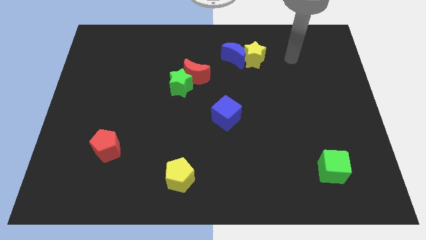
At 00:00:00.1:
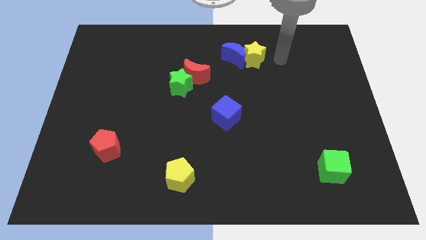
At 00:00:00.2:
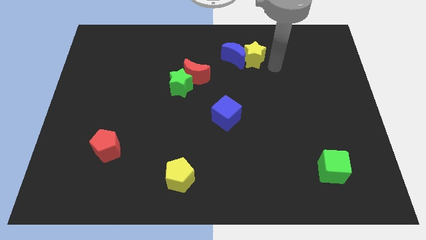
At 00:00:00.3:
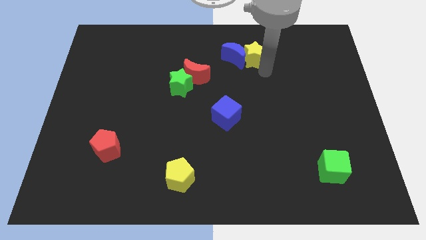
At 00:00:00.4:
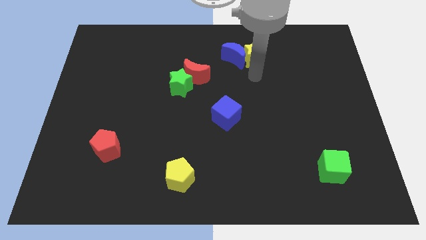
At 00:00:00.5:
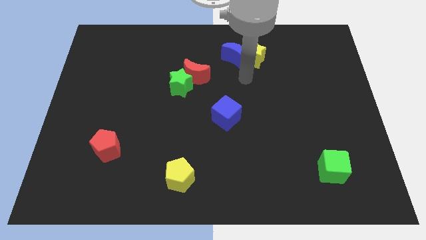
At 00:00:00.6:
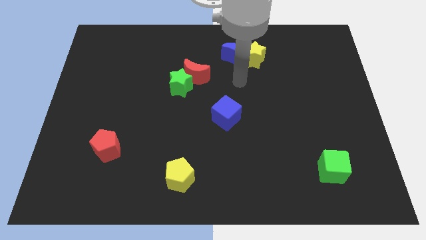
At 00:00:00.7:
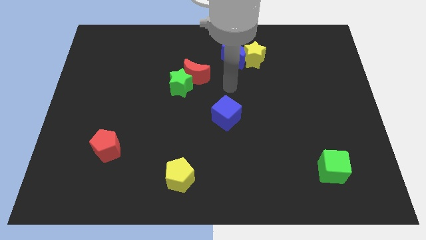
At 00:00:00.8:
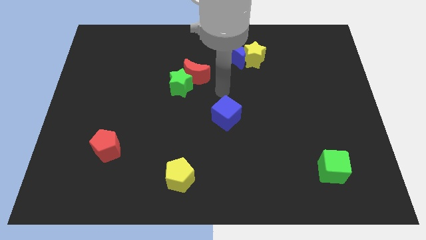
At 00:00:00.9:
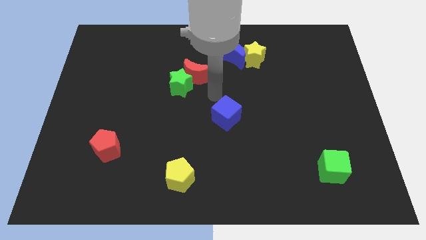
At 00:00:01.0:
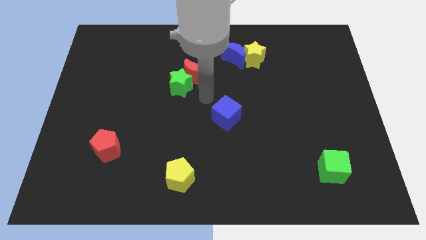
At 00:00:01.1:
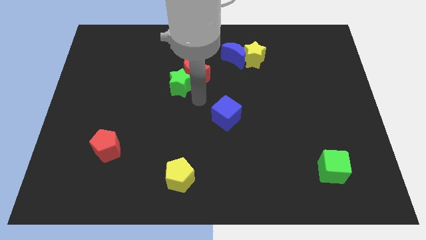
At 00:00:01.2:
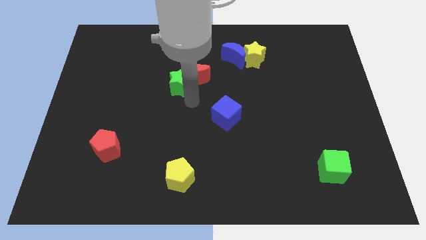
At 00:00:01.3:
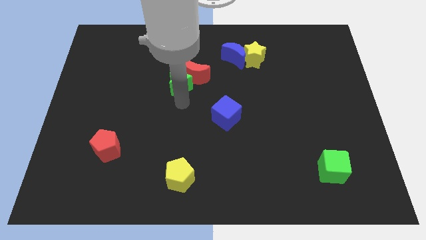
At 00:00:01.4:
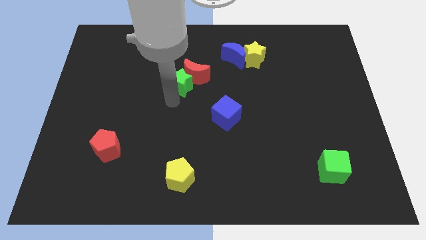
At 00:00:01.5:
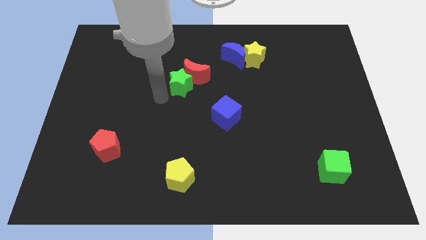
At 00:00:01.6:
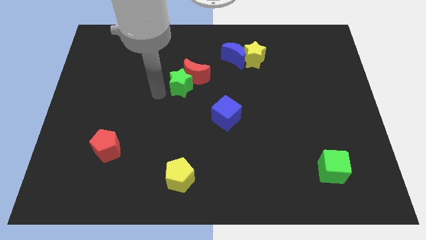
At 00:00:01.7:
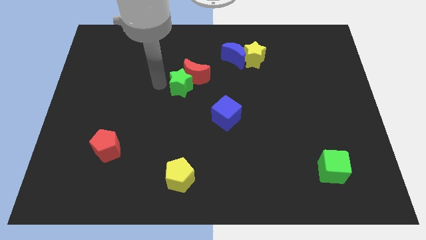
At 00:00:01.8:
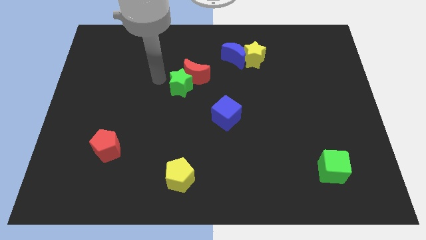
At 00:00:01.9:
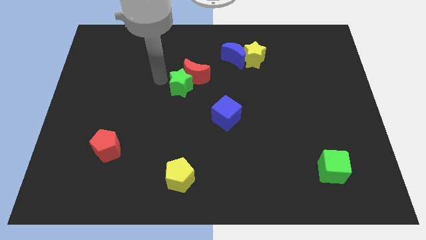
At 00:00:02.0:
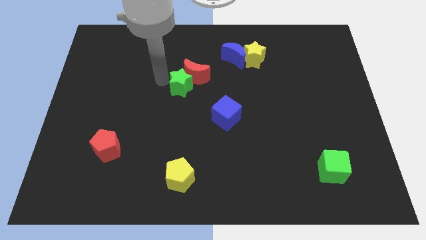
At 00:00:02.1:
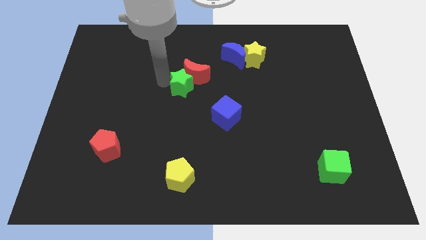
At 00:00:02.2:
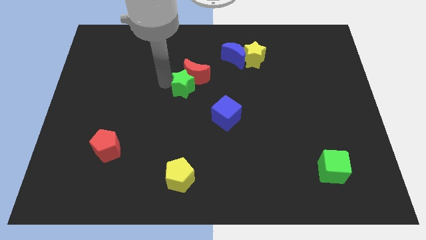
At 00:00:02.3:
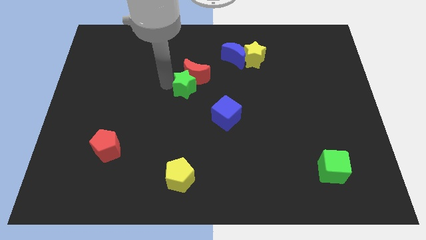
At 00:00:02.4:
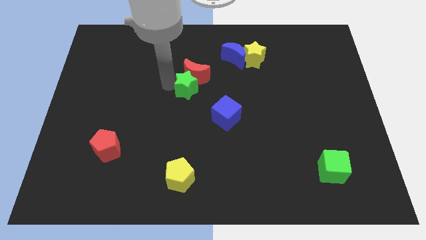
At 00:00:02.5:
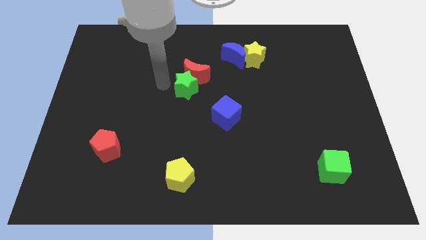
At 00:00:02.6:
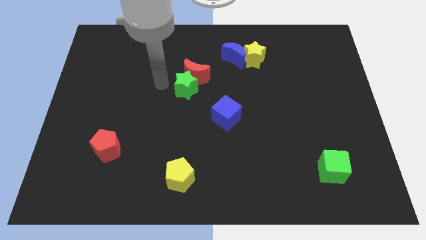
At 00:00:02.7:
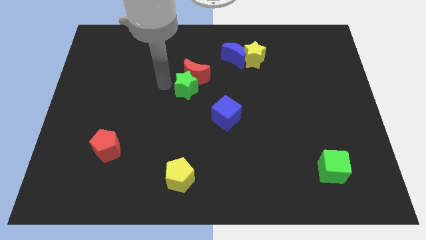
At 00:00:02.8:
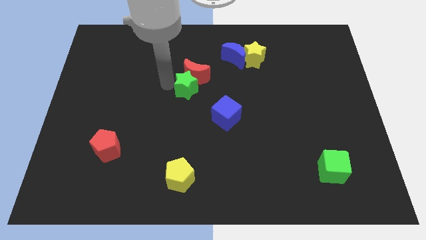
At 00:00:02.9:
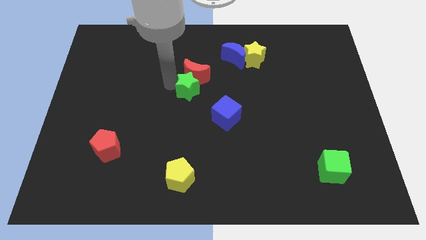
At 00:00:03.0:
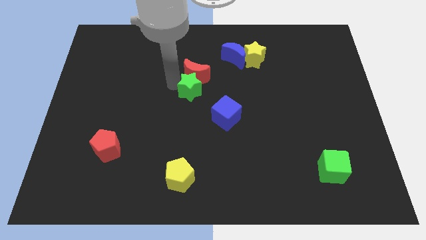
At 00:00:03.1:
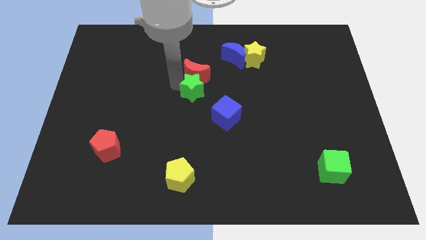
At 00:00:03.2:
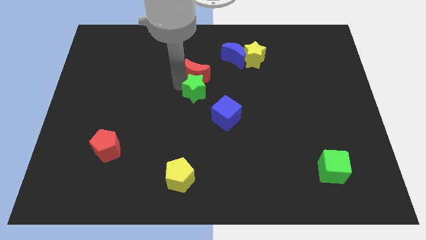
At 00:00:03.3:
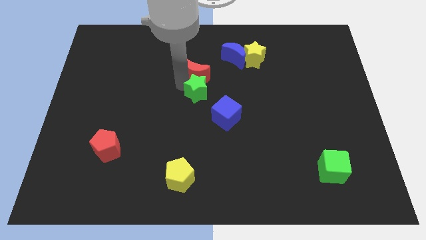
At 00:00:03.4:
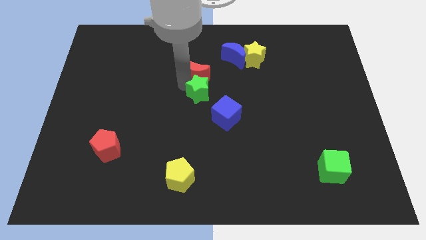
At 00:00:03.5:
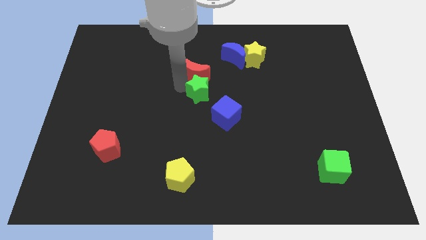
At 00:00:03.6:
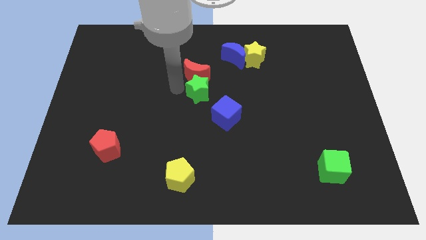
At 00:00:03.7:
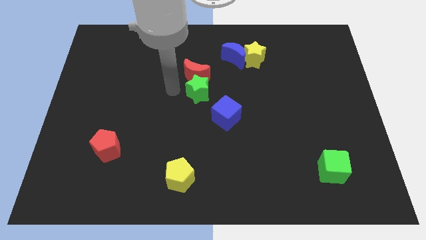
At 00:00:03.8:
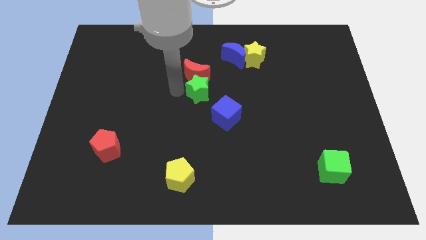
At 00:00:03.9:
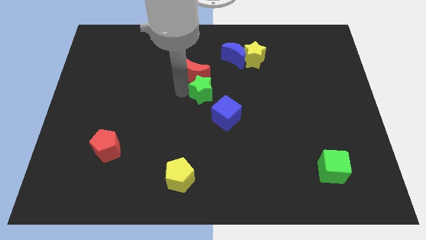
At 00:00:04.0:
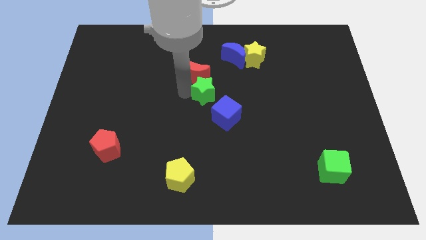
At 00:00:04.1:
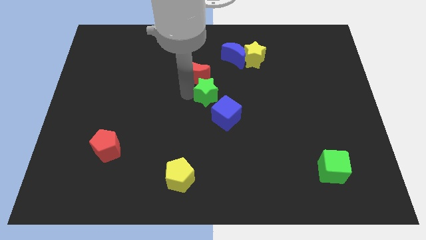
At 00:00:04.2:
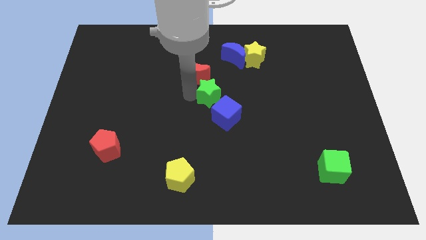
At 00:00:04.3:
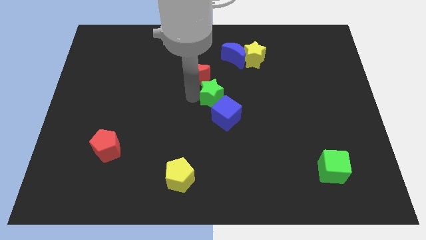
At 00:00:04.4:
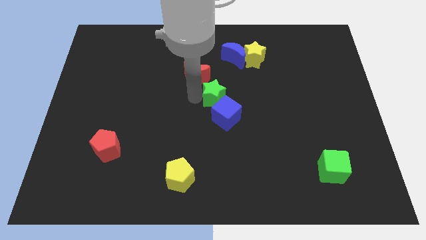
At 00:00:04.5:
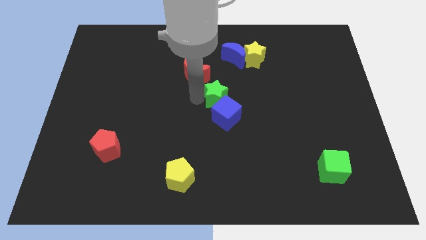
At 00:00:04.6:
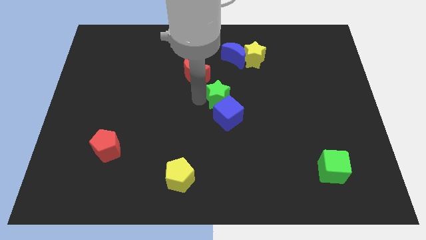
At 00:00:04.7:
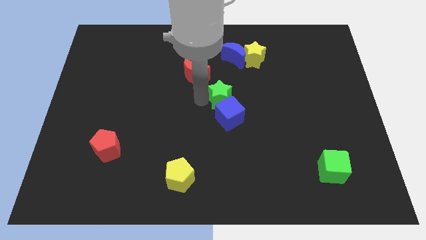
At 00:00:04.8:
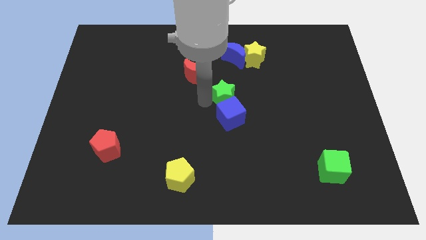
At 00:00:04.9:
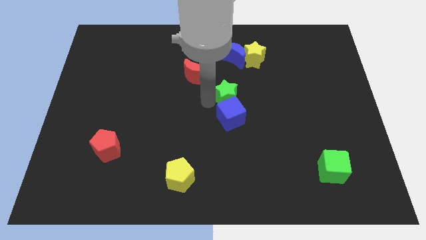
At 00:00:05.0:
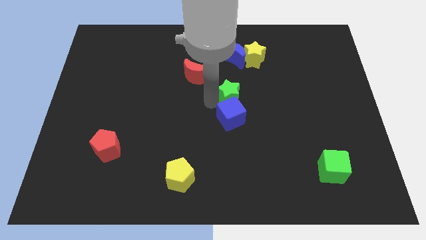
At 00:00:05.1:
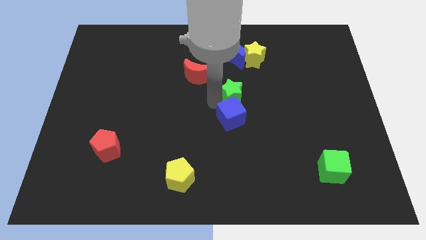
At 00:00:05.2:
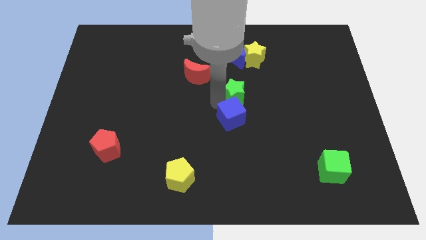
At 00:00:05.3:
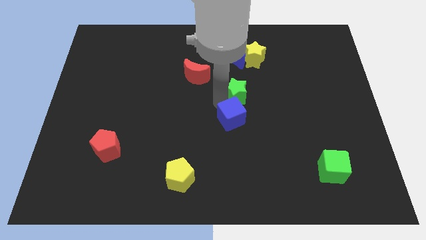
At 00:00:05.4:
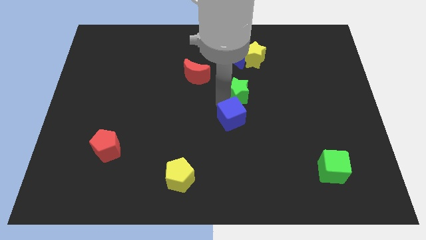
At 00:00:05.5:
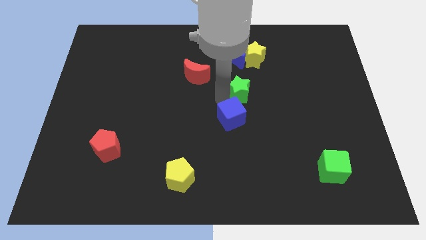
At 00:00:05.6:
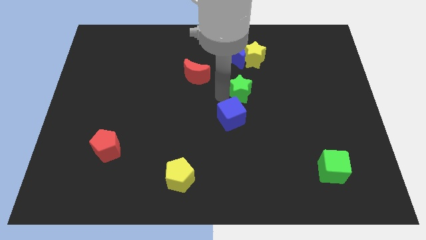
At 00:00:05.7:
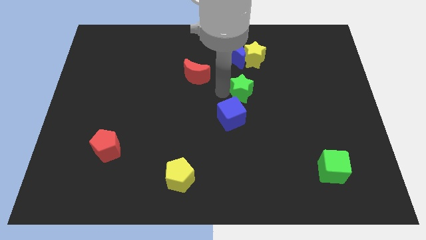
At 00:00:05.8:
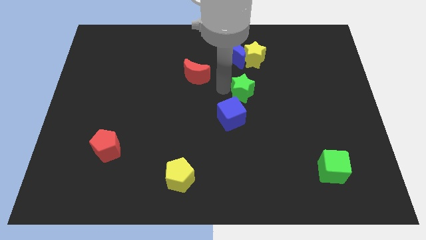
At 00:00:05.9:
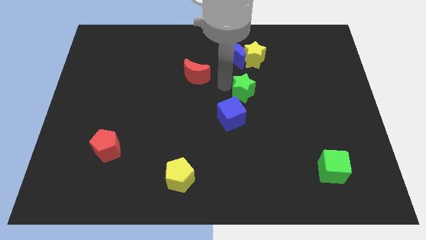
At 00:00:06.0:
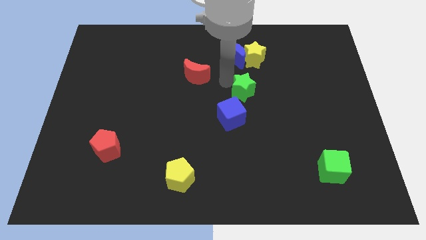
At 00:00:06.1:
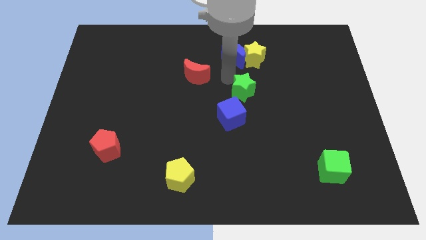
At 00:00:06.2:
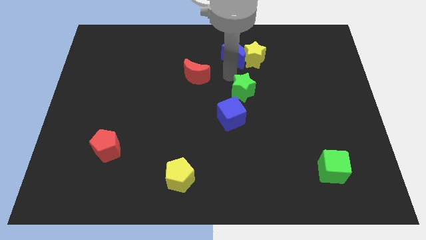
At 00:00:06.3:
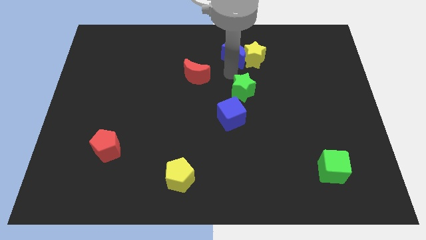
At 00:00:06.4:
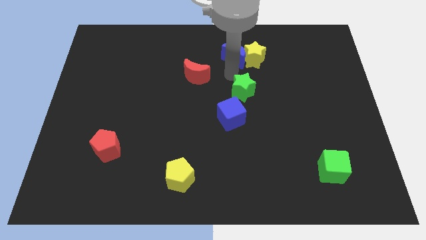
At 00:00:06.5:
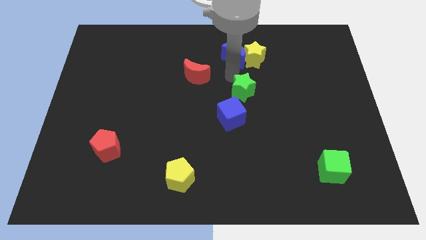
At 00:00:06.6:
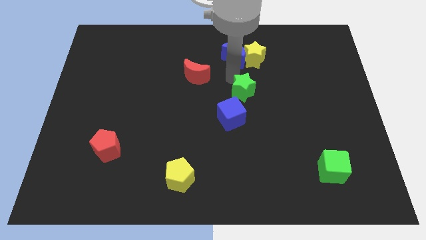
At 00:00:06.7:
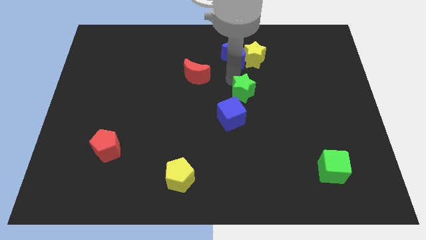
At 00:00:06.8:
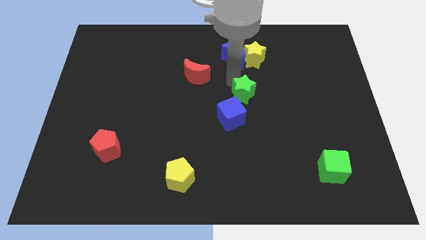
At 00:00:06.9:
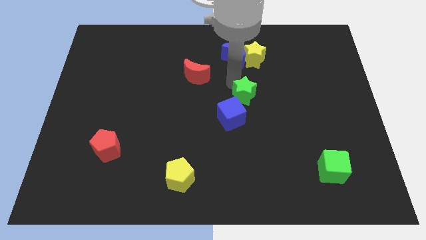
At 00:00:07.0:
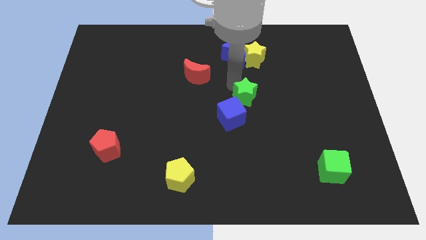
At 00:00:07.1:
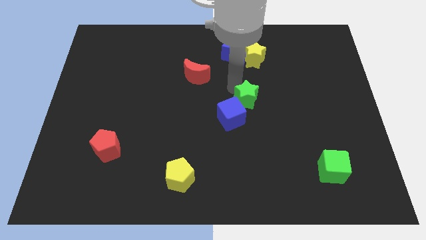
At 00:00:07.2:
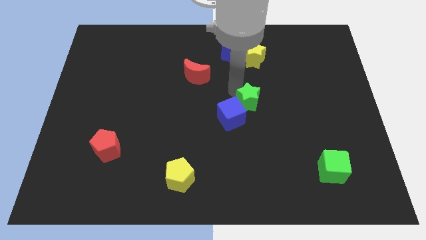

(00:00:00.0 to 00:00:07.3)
push the green star right of the blue cube
